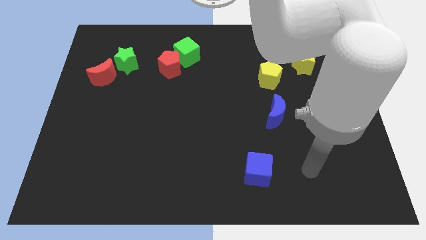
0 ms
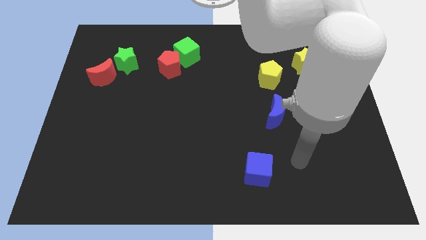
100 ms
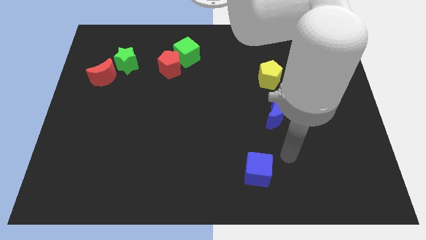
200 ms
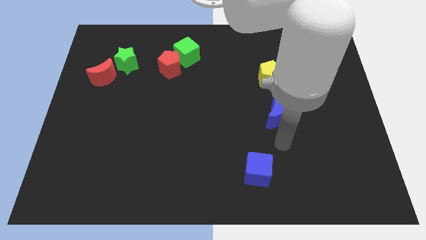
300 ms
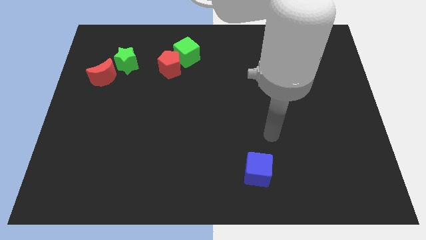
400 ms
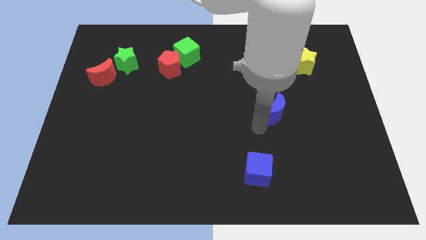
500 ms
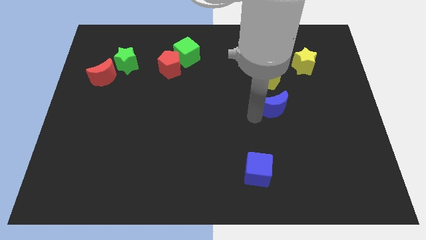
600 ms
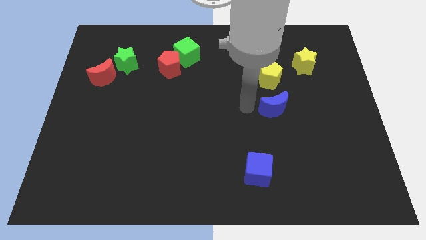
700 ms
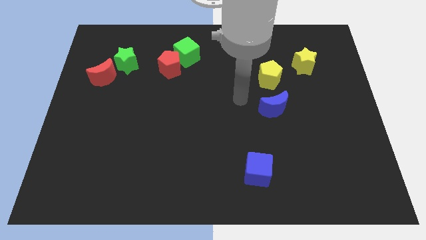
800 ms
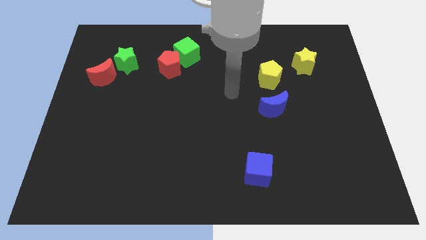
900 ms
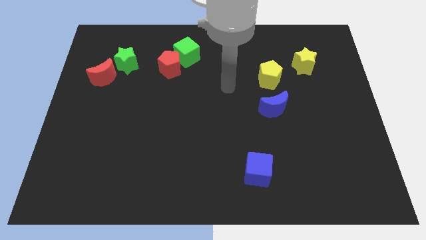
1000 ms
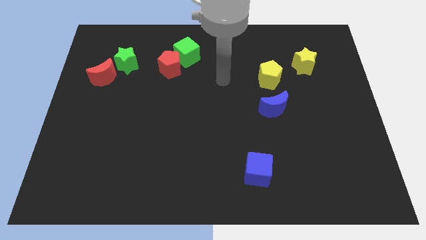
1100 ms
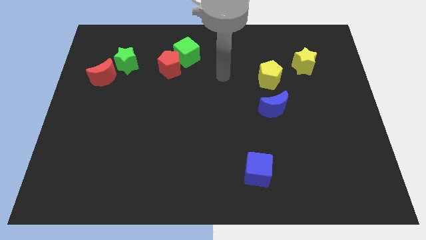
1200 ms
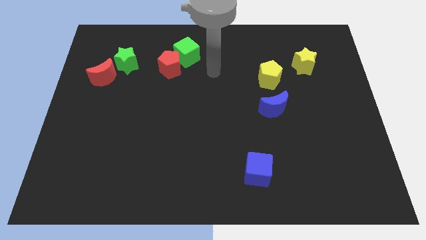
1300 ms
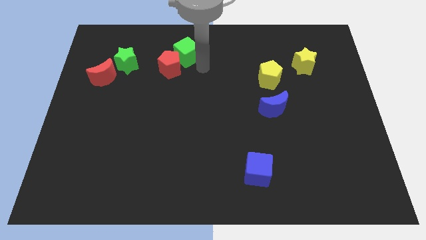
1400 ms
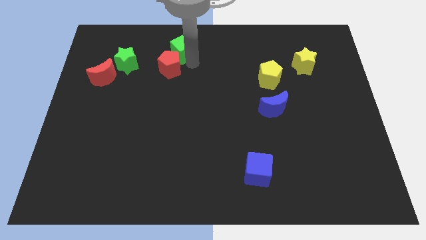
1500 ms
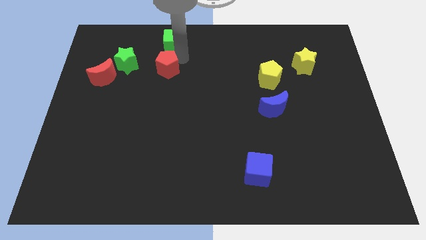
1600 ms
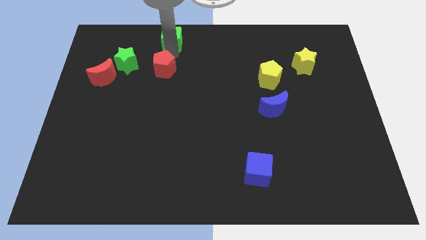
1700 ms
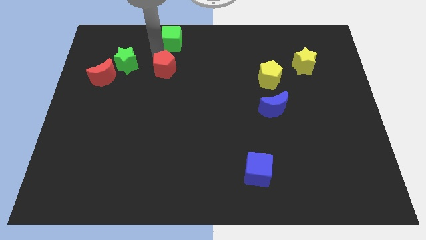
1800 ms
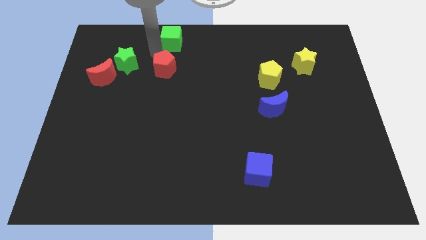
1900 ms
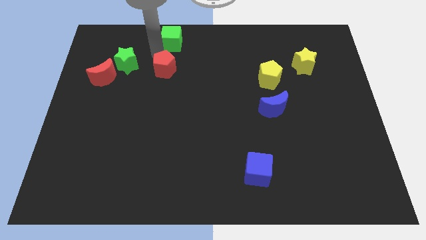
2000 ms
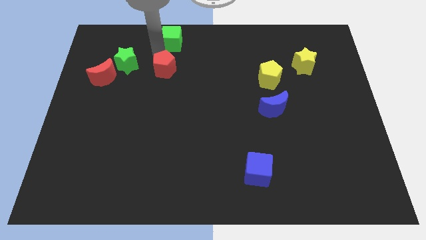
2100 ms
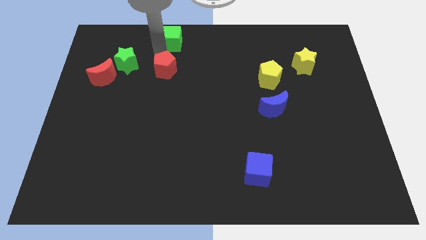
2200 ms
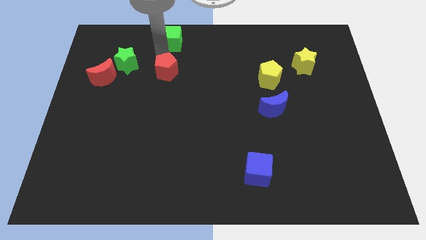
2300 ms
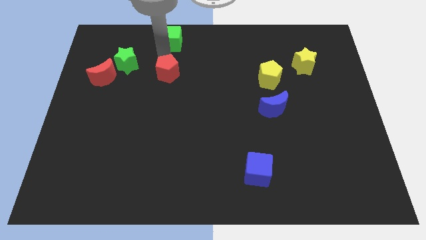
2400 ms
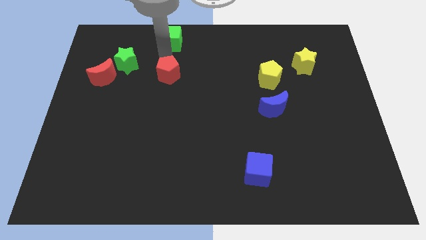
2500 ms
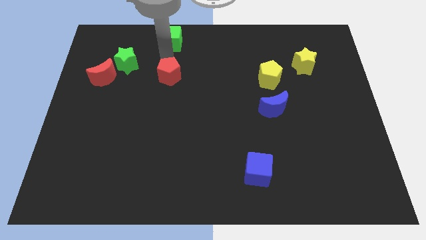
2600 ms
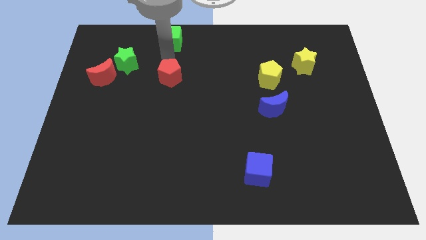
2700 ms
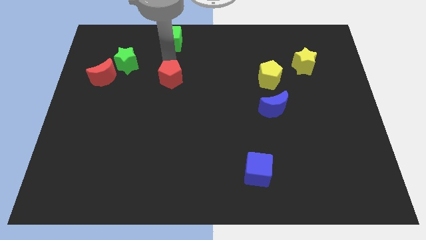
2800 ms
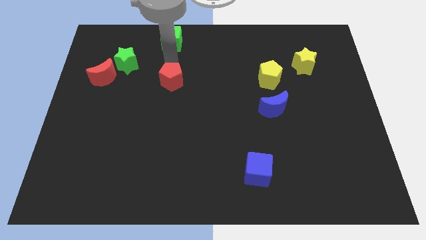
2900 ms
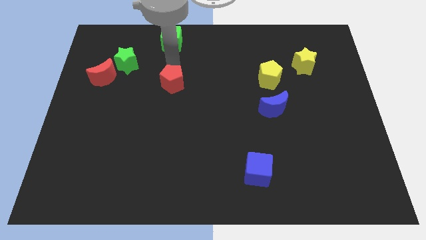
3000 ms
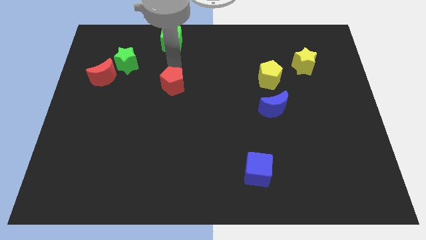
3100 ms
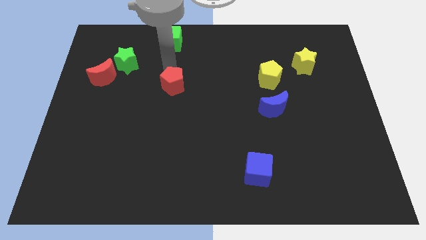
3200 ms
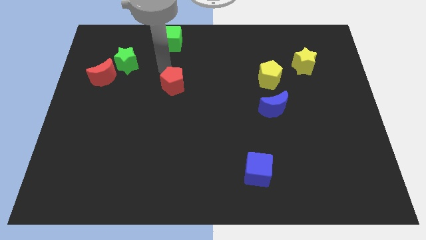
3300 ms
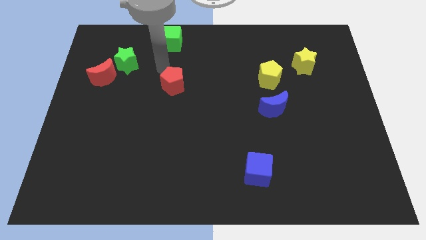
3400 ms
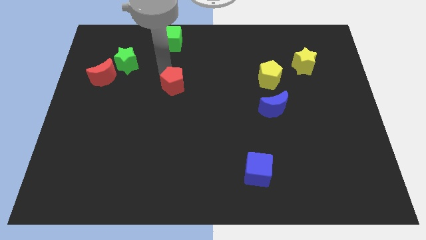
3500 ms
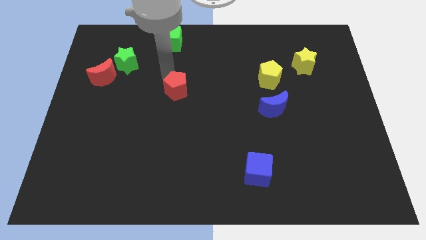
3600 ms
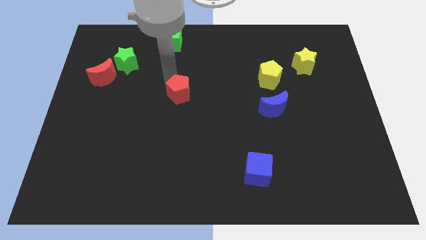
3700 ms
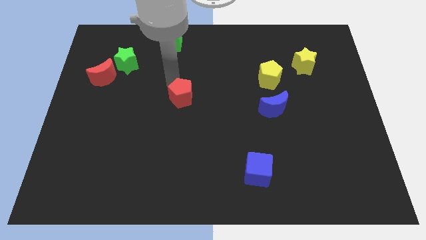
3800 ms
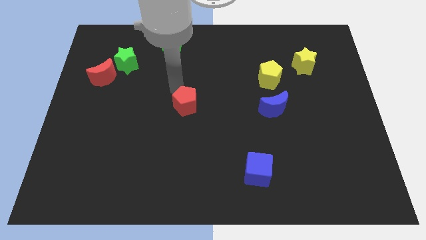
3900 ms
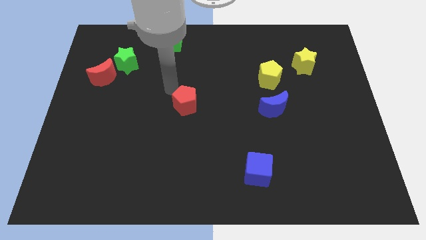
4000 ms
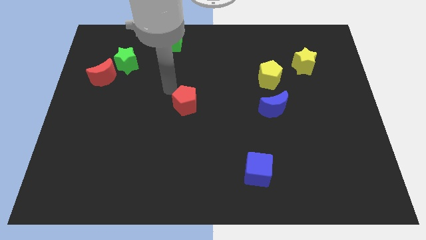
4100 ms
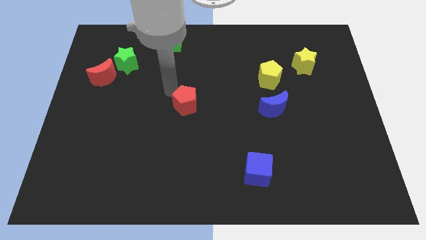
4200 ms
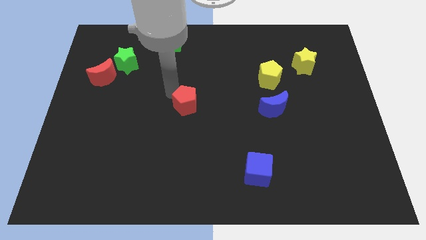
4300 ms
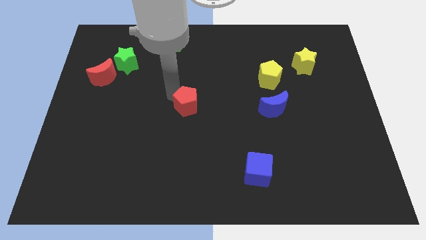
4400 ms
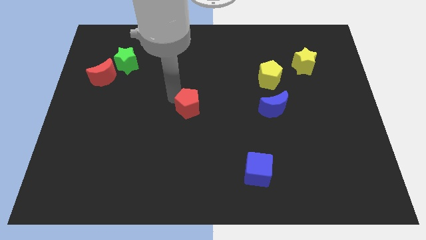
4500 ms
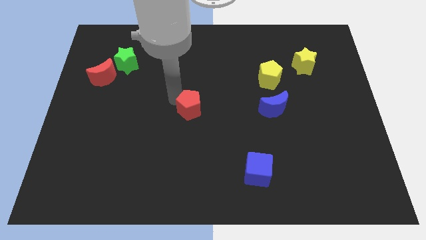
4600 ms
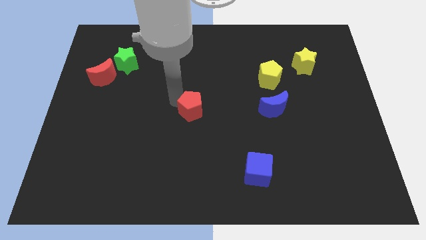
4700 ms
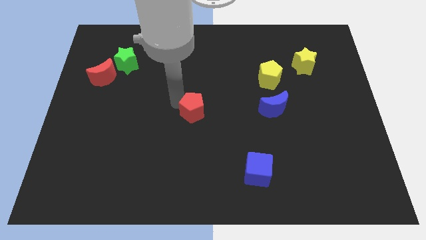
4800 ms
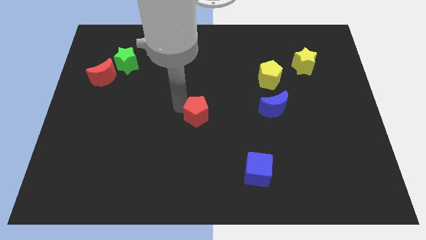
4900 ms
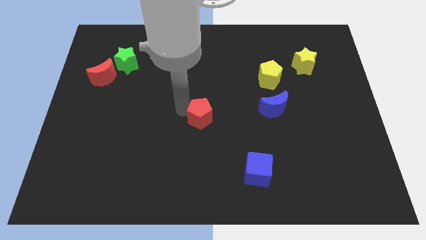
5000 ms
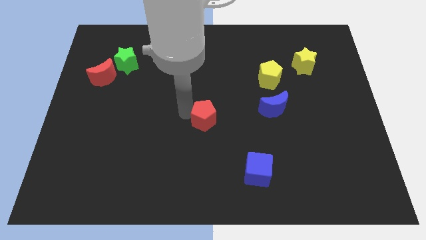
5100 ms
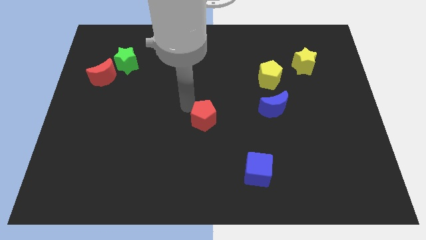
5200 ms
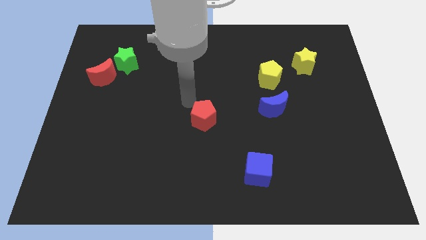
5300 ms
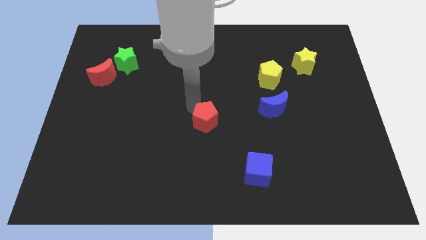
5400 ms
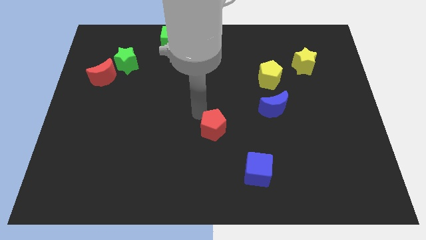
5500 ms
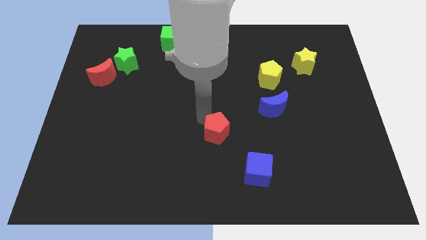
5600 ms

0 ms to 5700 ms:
put the red pentagon to the top left side of the blue cube

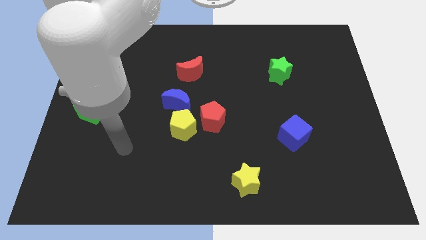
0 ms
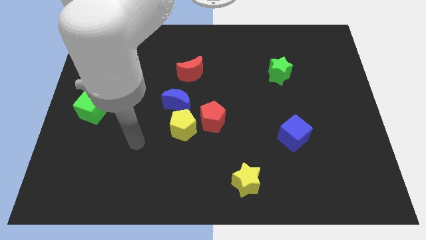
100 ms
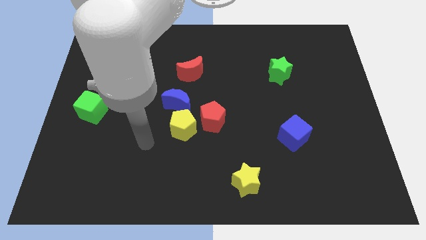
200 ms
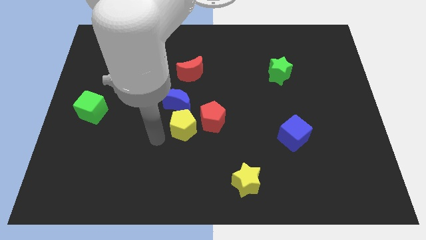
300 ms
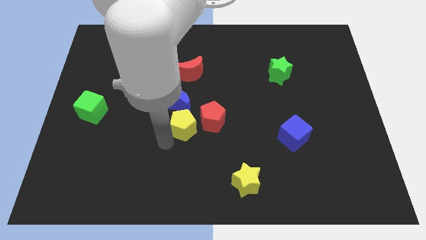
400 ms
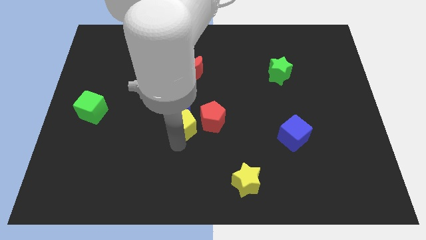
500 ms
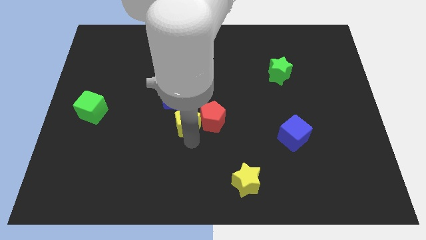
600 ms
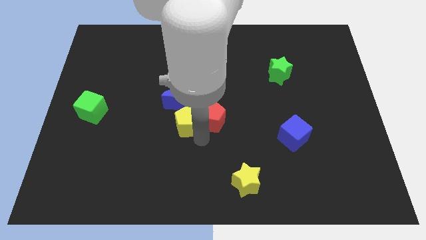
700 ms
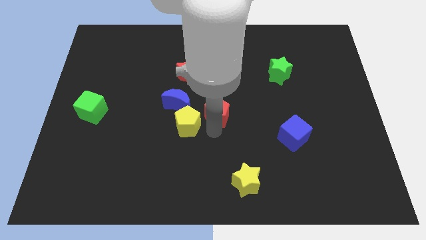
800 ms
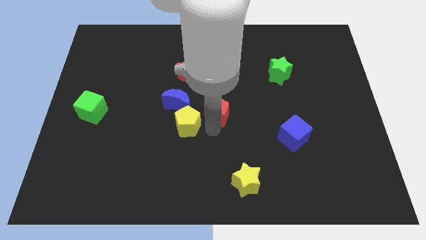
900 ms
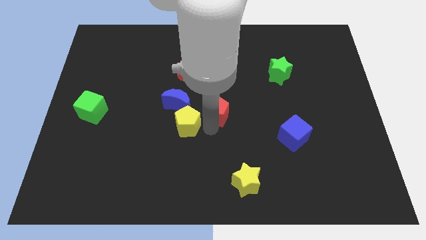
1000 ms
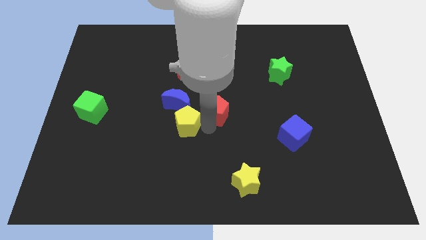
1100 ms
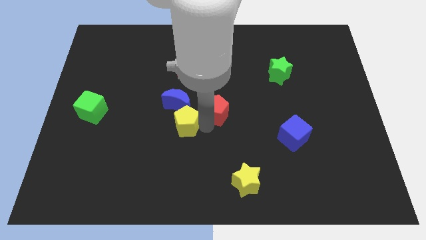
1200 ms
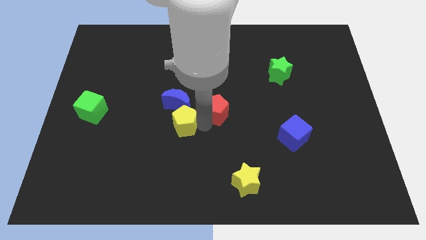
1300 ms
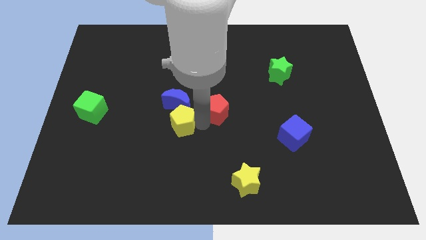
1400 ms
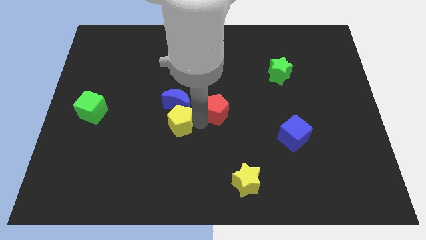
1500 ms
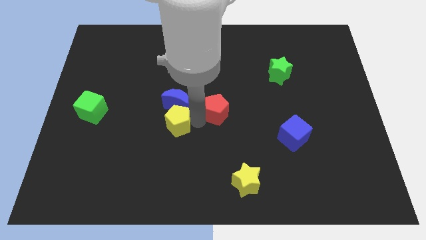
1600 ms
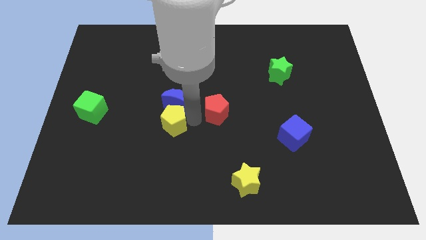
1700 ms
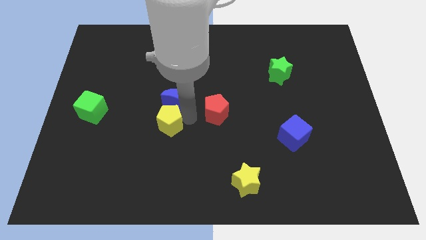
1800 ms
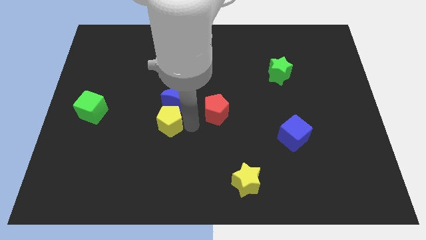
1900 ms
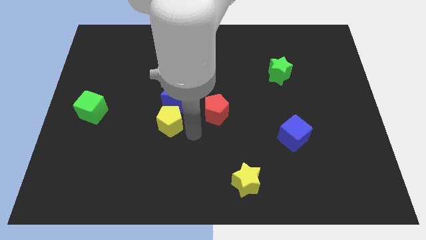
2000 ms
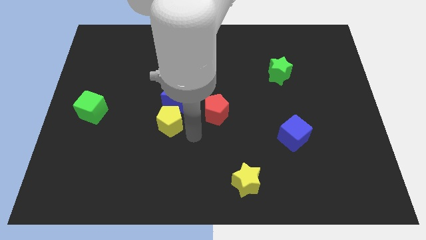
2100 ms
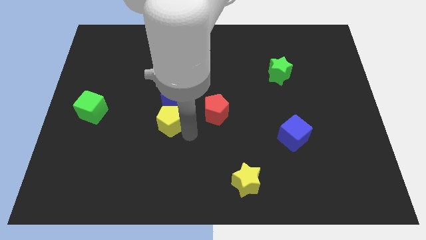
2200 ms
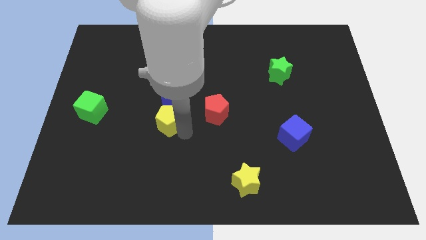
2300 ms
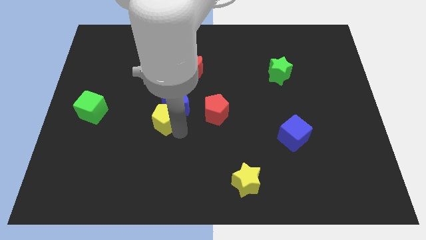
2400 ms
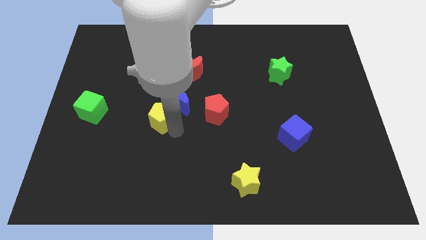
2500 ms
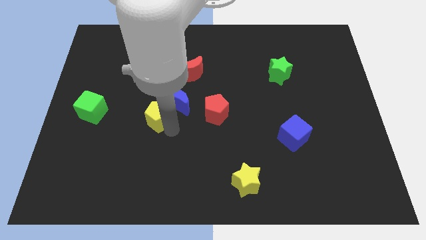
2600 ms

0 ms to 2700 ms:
move the yellow pentagon just left of the blue moon

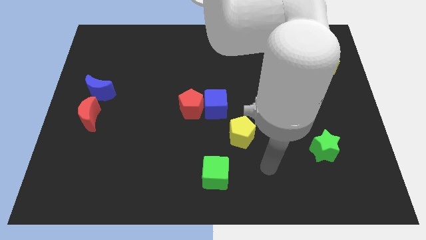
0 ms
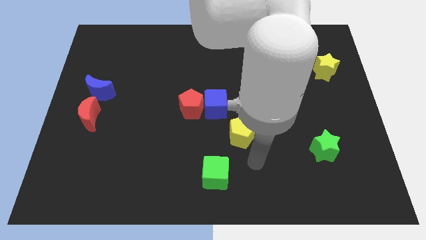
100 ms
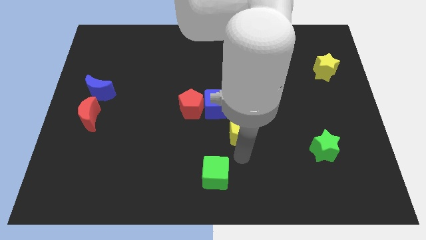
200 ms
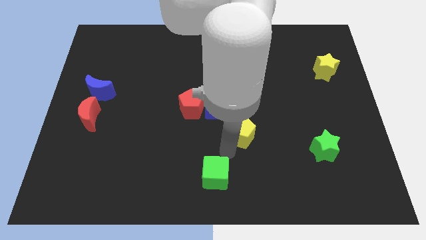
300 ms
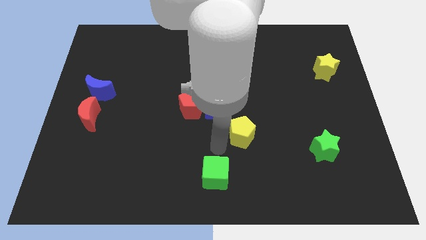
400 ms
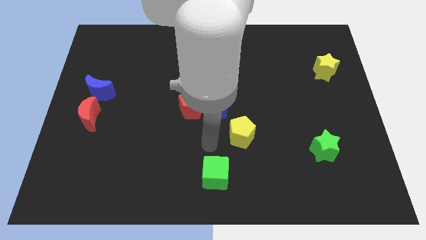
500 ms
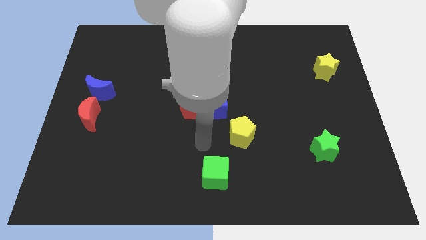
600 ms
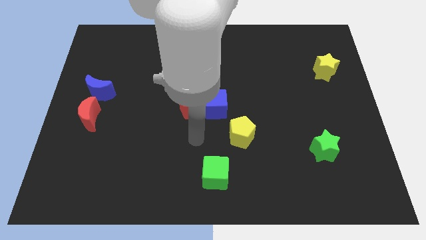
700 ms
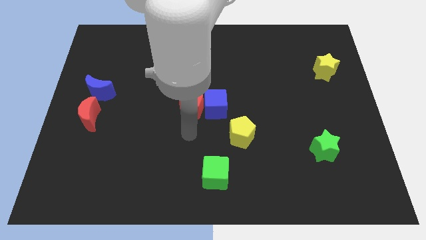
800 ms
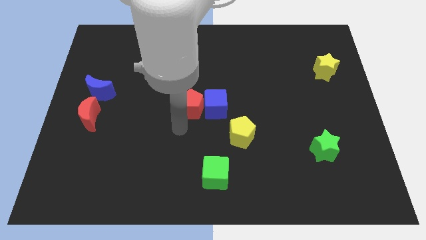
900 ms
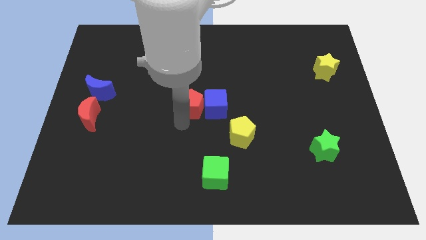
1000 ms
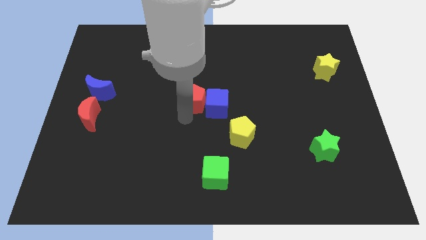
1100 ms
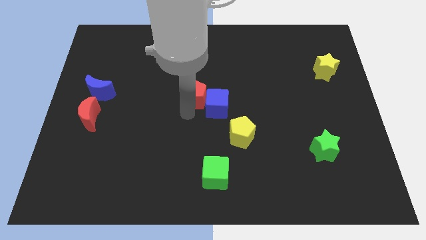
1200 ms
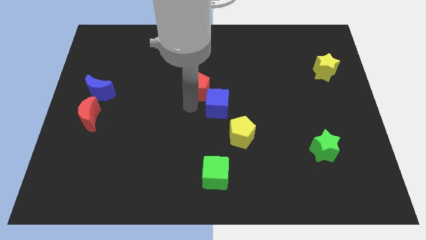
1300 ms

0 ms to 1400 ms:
move the red pentagon to the top of the blue cube
